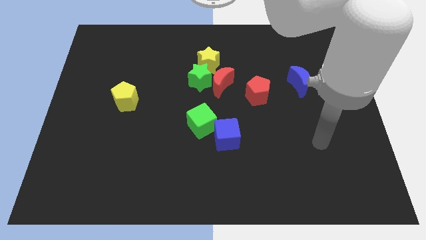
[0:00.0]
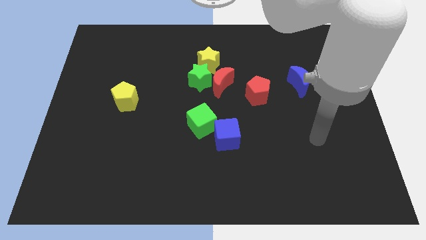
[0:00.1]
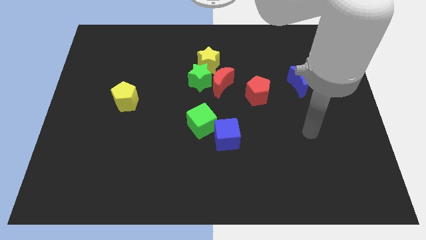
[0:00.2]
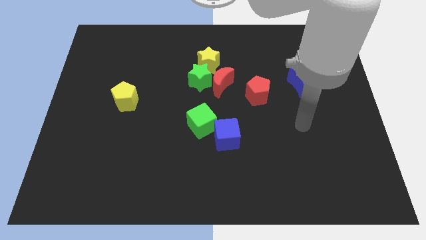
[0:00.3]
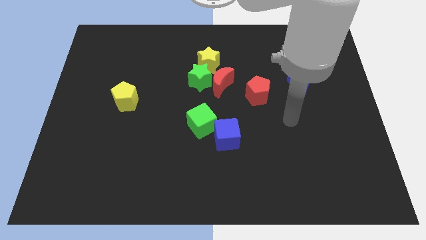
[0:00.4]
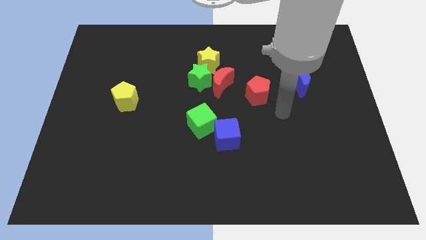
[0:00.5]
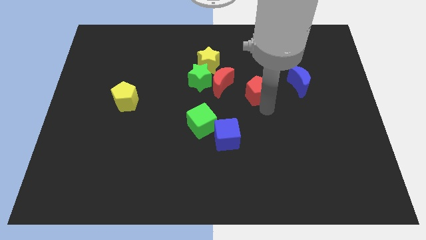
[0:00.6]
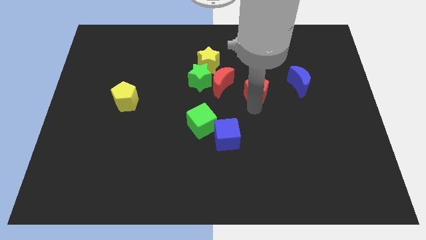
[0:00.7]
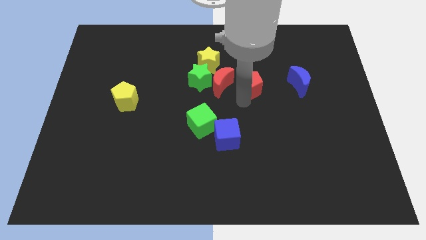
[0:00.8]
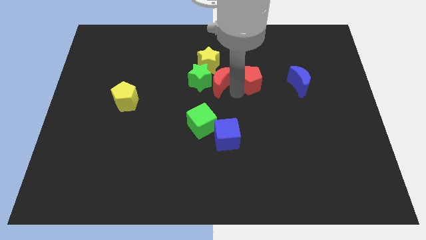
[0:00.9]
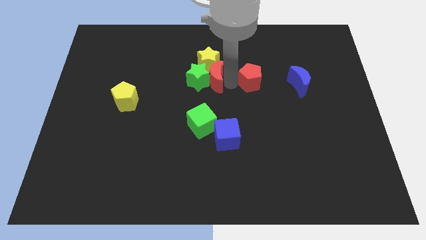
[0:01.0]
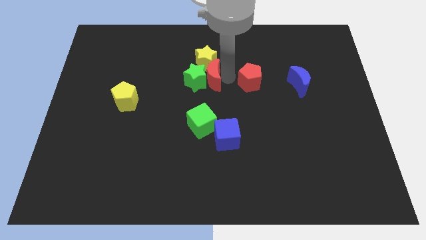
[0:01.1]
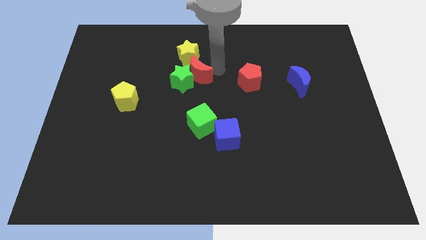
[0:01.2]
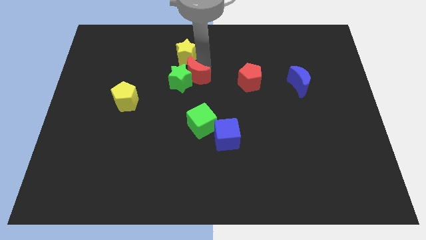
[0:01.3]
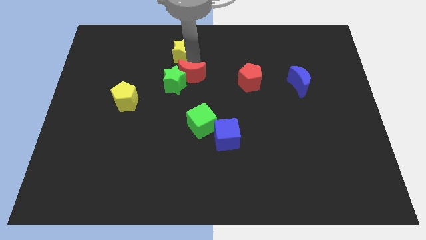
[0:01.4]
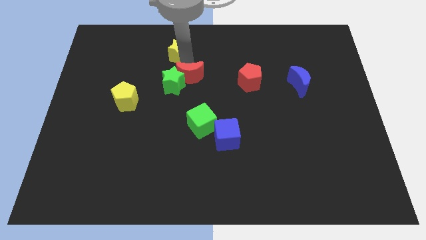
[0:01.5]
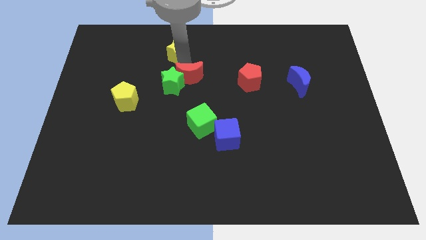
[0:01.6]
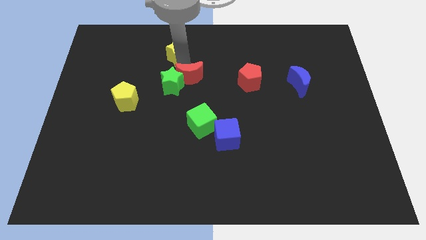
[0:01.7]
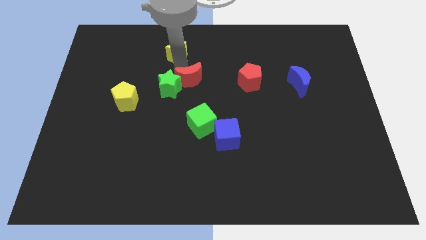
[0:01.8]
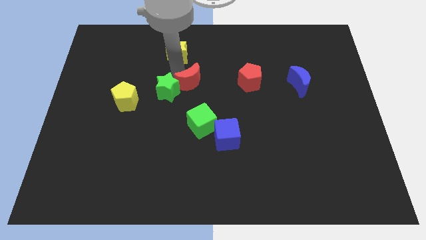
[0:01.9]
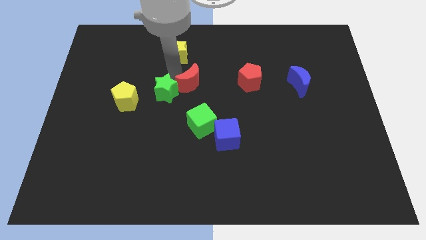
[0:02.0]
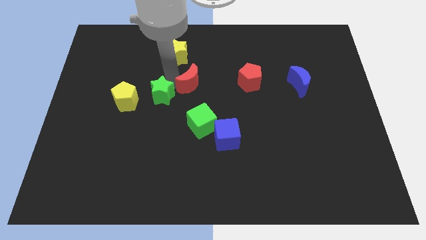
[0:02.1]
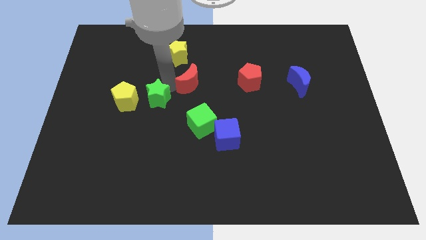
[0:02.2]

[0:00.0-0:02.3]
move the green star away from the red moon and yellow star

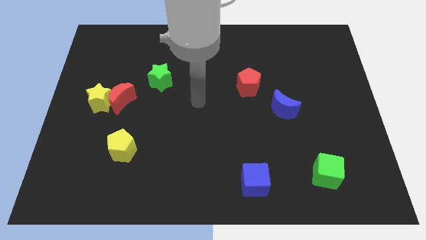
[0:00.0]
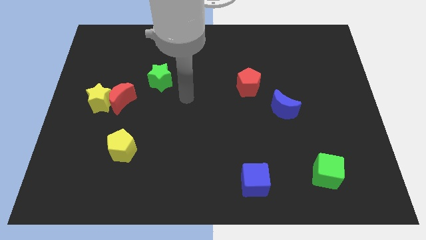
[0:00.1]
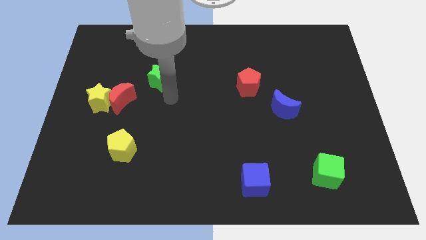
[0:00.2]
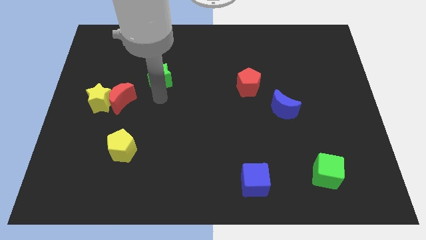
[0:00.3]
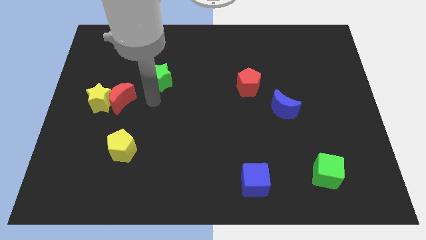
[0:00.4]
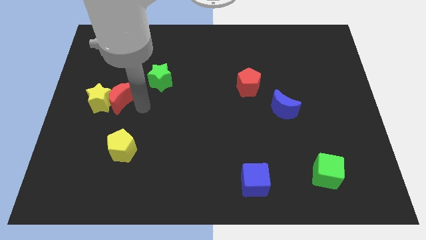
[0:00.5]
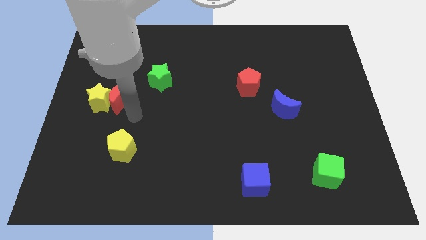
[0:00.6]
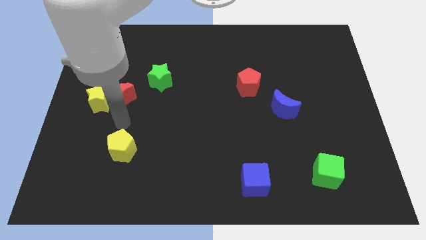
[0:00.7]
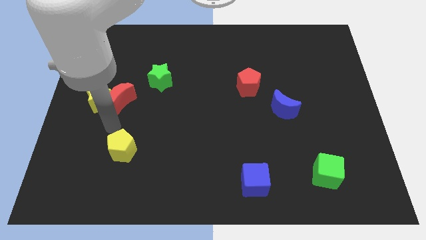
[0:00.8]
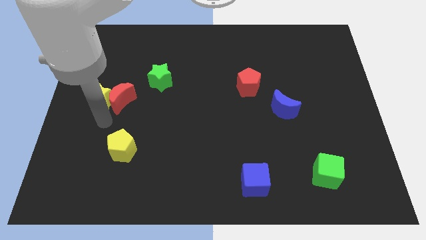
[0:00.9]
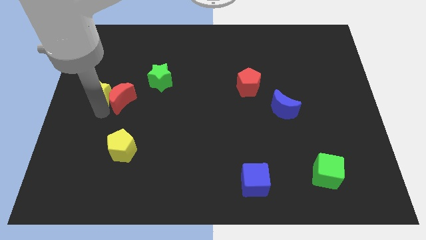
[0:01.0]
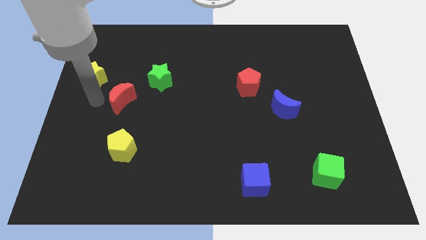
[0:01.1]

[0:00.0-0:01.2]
pull the red moon apart from the yellow star

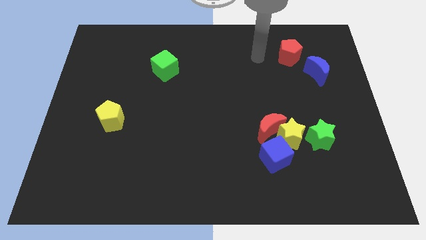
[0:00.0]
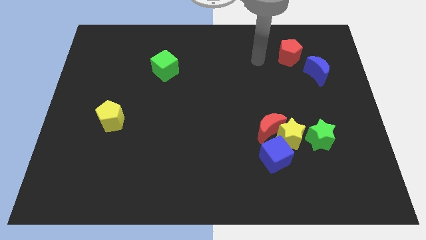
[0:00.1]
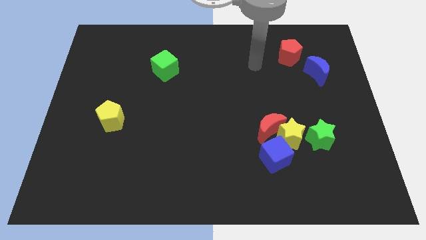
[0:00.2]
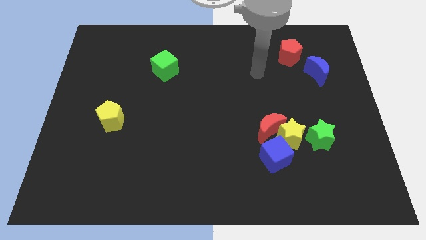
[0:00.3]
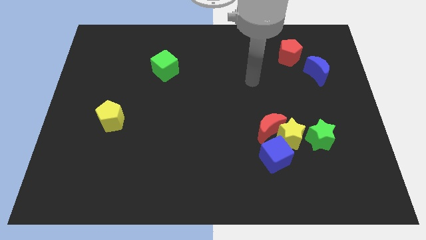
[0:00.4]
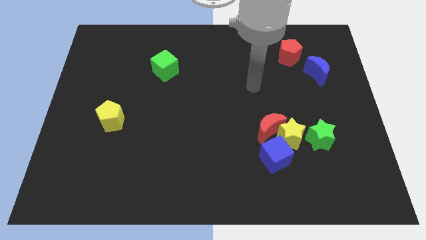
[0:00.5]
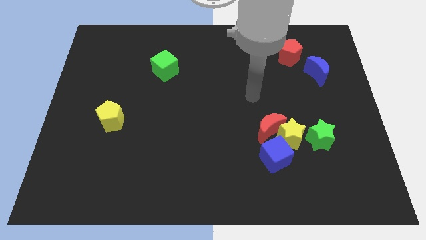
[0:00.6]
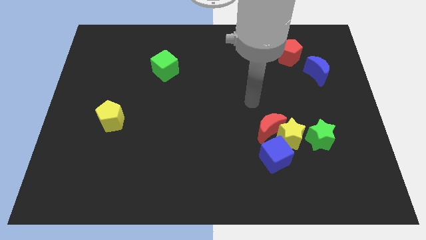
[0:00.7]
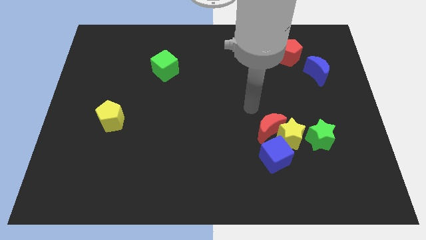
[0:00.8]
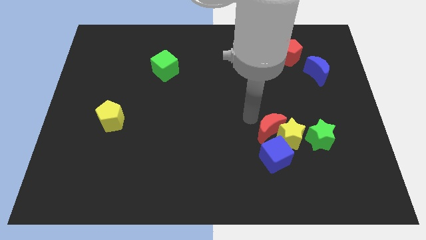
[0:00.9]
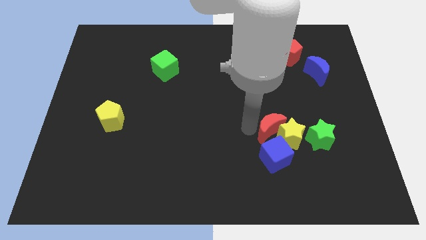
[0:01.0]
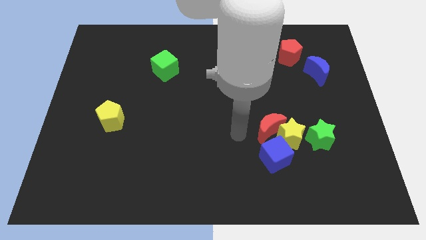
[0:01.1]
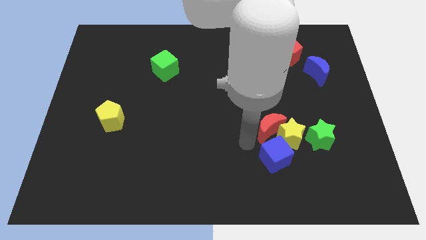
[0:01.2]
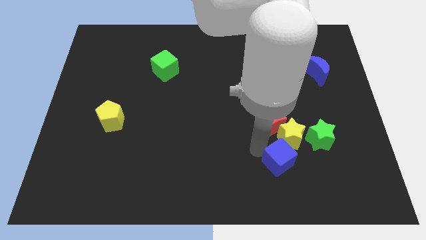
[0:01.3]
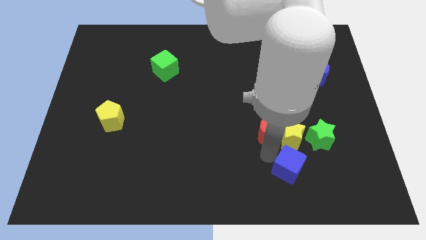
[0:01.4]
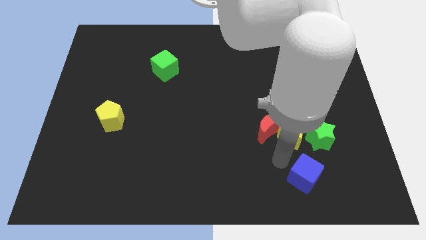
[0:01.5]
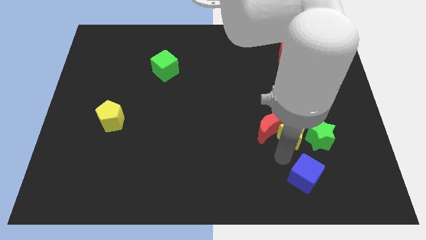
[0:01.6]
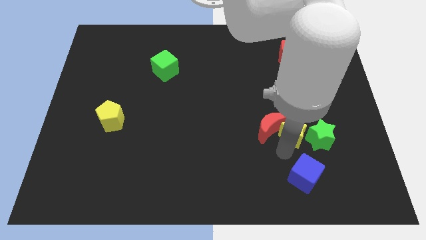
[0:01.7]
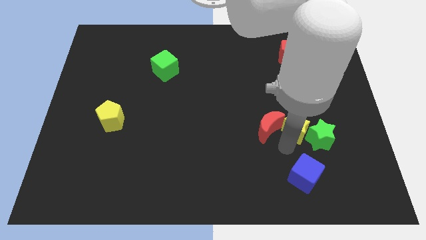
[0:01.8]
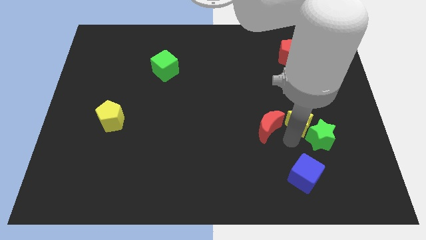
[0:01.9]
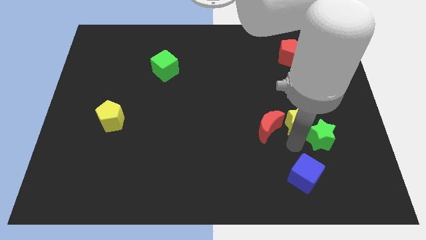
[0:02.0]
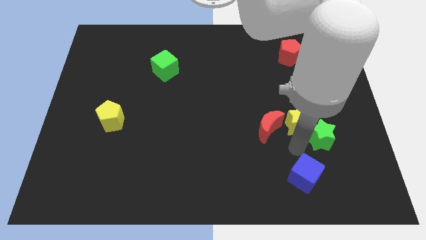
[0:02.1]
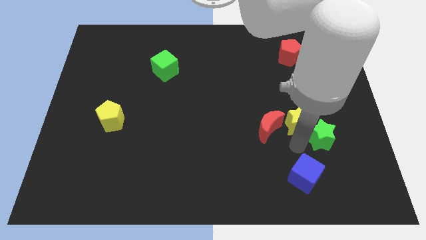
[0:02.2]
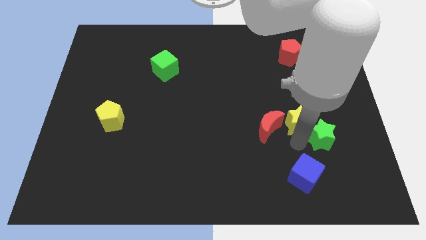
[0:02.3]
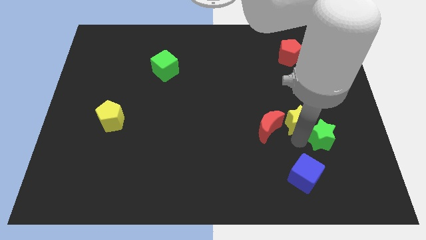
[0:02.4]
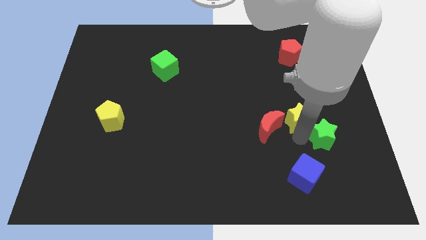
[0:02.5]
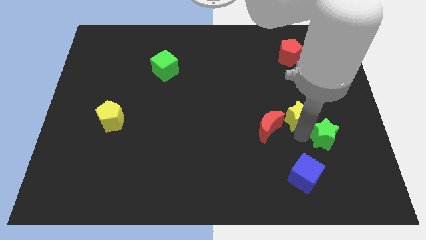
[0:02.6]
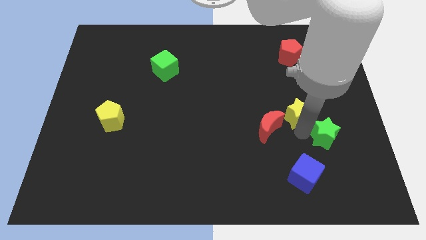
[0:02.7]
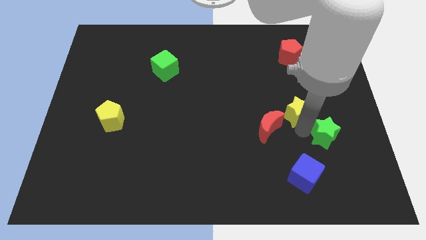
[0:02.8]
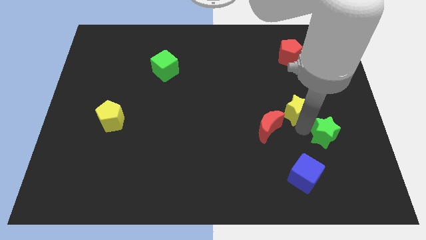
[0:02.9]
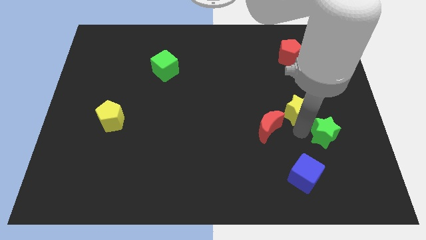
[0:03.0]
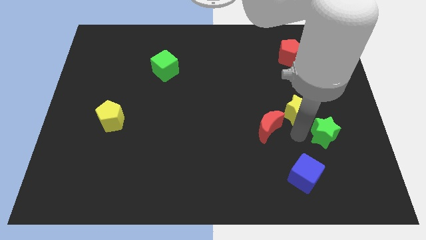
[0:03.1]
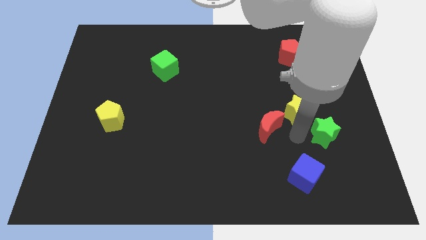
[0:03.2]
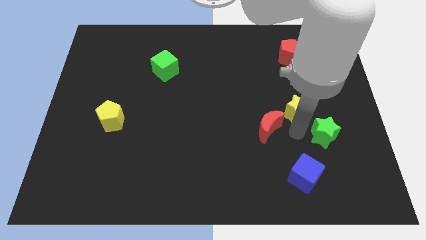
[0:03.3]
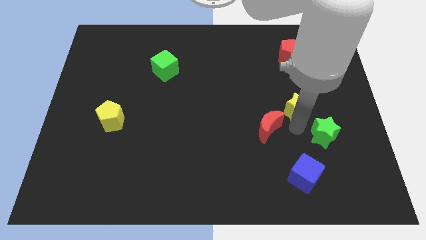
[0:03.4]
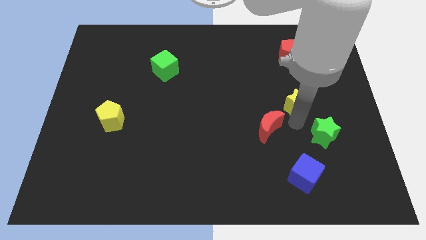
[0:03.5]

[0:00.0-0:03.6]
separate the yellow star from the group

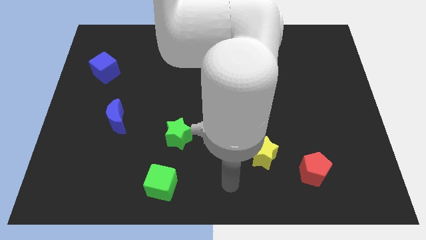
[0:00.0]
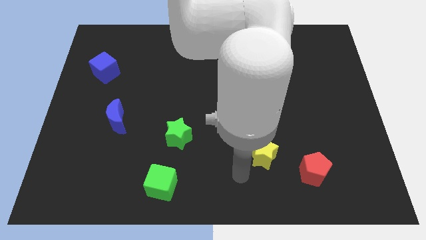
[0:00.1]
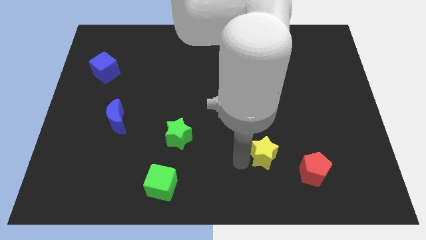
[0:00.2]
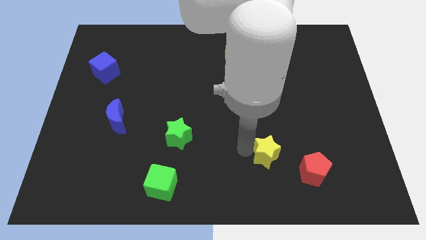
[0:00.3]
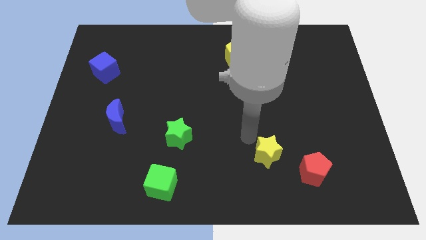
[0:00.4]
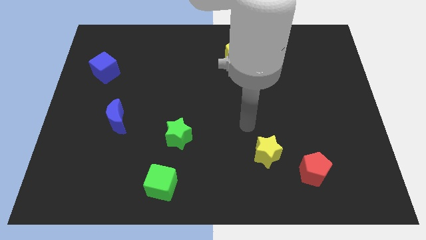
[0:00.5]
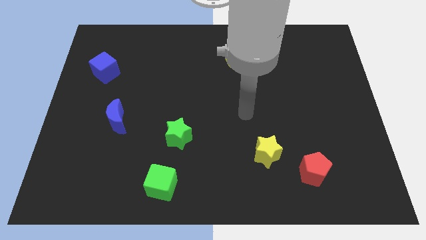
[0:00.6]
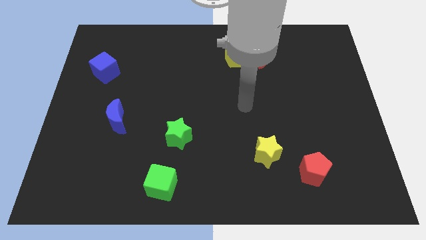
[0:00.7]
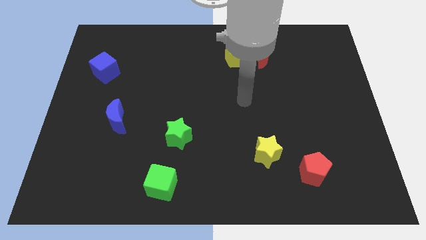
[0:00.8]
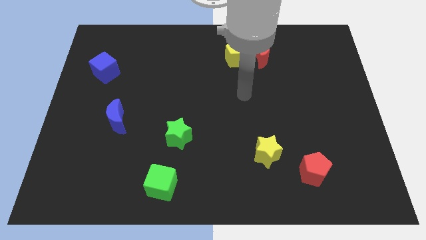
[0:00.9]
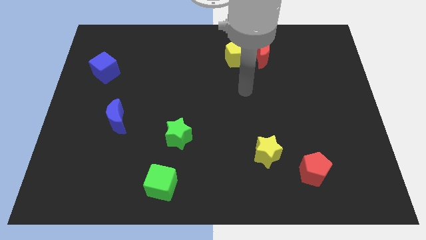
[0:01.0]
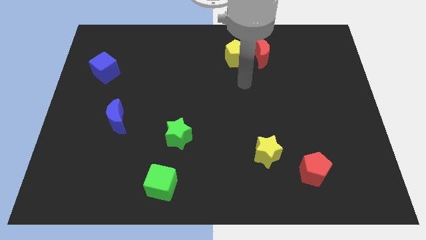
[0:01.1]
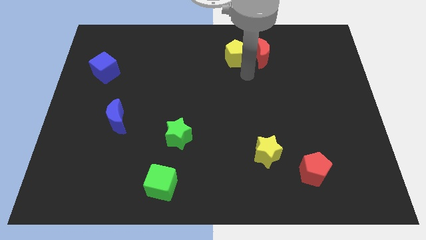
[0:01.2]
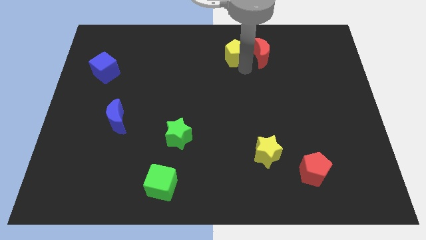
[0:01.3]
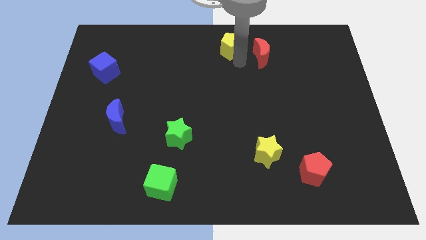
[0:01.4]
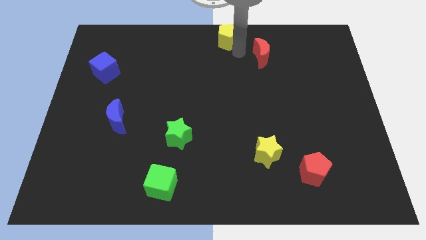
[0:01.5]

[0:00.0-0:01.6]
move the red moon away from the yellow pentagon

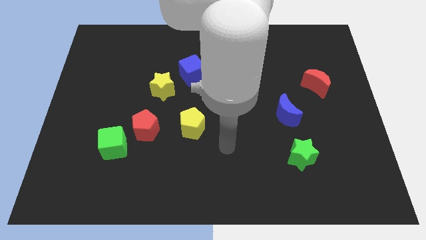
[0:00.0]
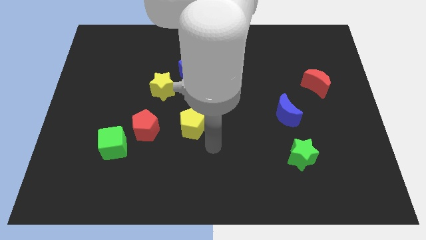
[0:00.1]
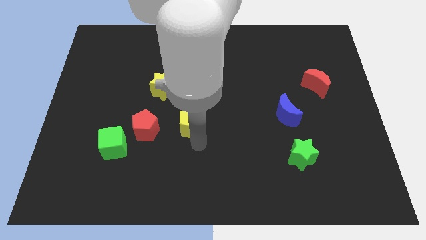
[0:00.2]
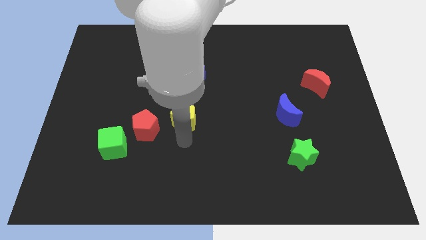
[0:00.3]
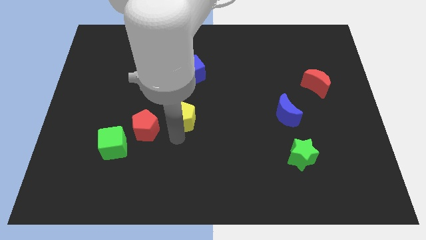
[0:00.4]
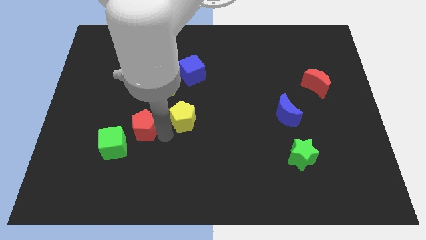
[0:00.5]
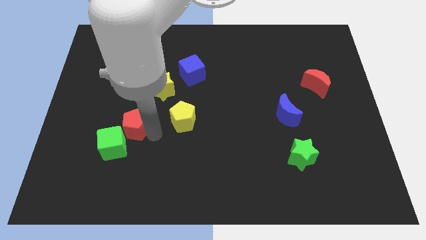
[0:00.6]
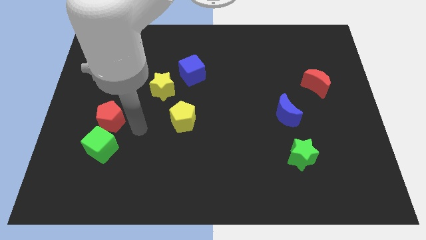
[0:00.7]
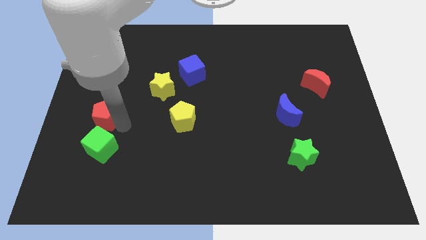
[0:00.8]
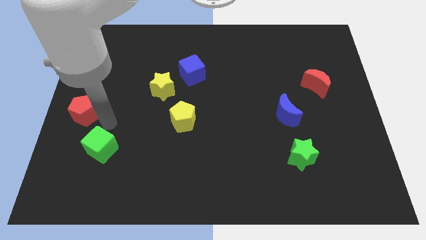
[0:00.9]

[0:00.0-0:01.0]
move the green cube away from the red pentagon
